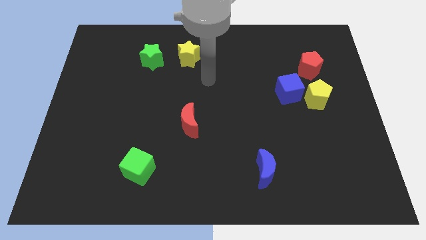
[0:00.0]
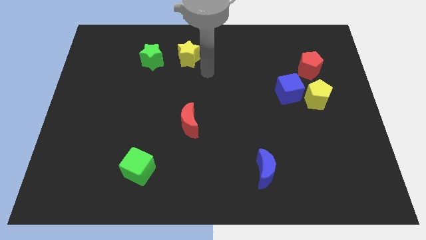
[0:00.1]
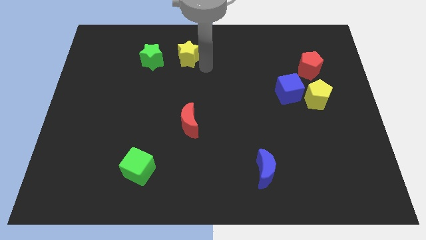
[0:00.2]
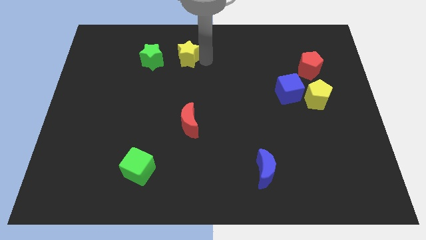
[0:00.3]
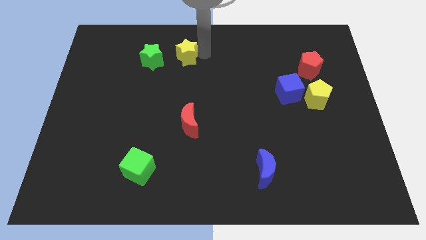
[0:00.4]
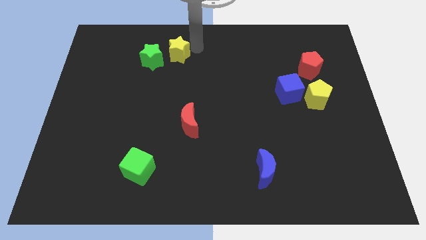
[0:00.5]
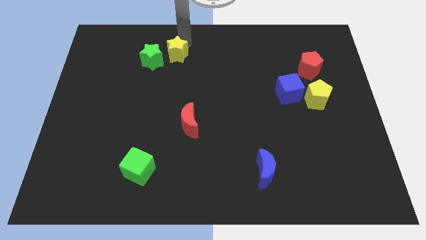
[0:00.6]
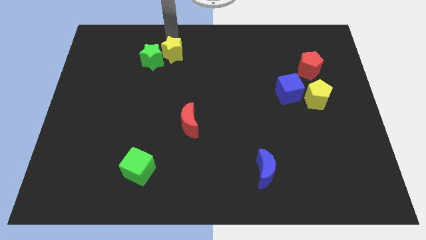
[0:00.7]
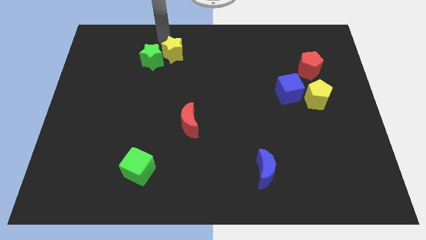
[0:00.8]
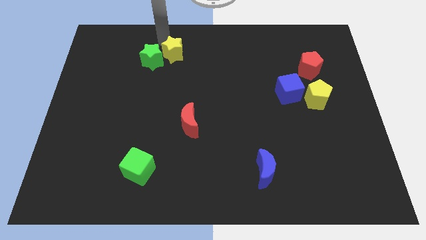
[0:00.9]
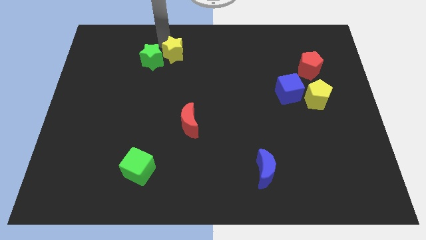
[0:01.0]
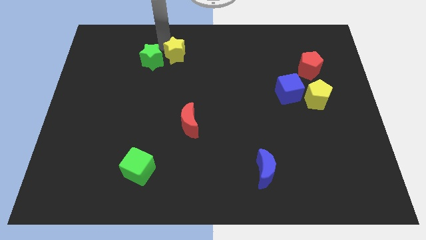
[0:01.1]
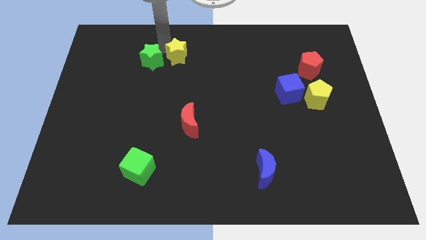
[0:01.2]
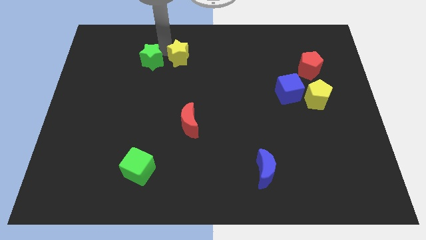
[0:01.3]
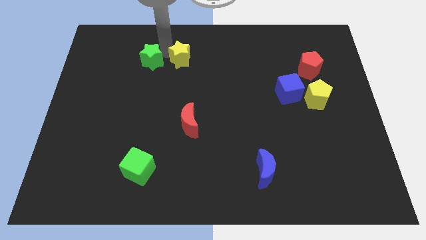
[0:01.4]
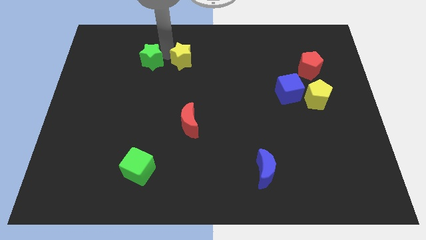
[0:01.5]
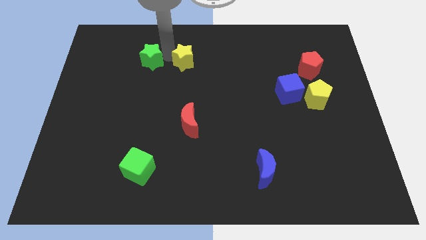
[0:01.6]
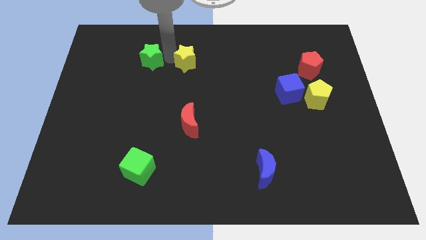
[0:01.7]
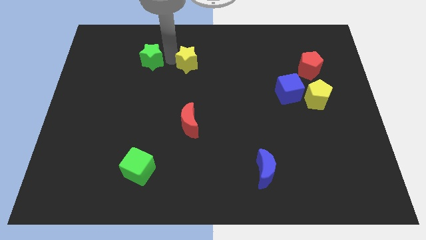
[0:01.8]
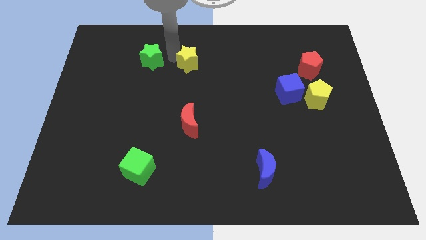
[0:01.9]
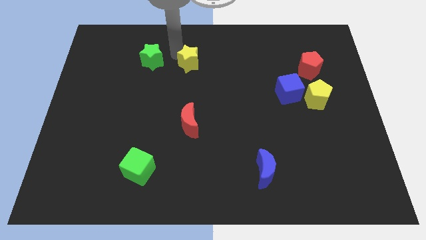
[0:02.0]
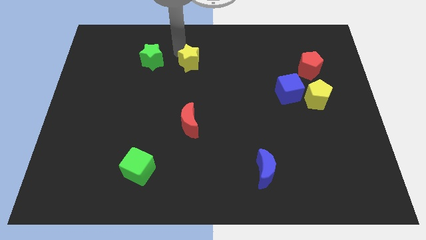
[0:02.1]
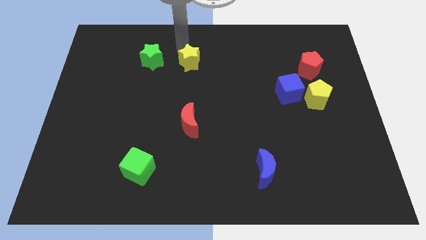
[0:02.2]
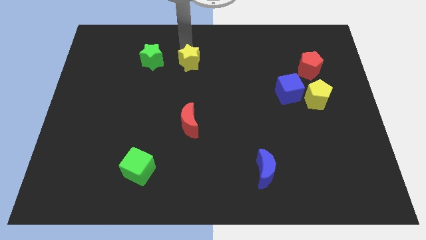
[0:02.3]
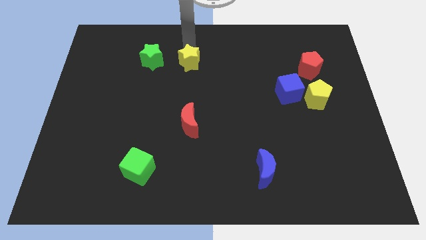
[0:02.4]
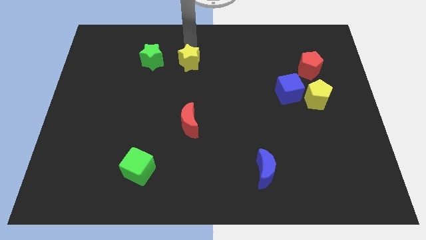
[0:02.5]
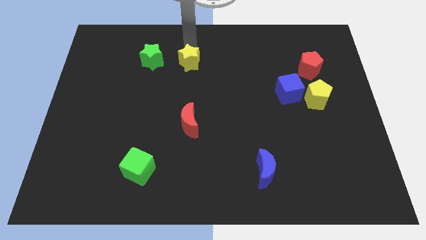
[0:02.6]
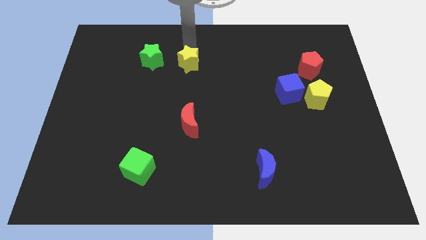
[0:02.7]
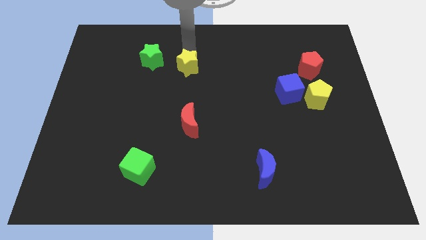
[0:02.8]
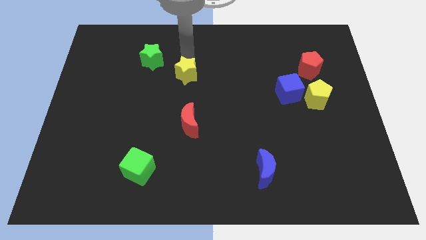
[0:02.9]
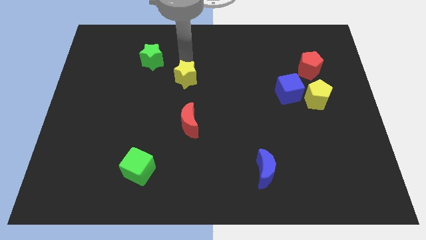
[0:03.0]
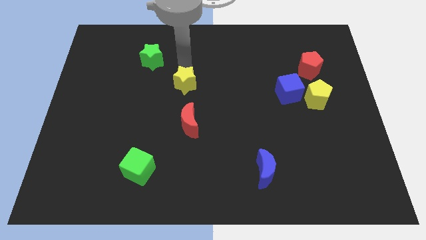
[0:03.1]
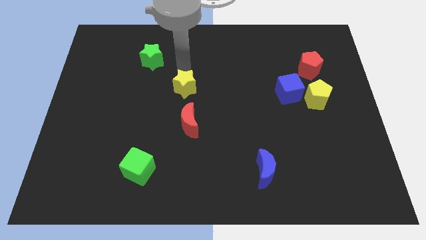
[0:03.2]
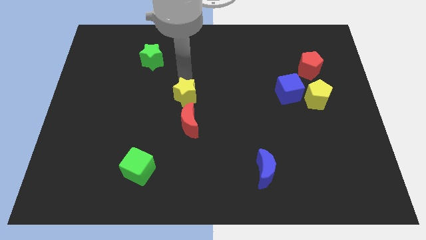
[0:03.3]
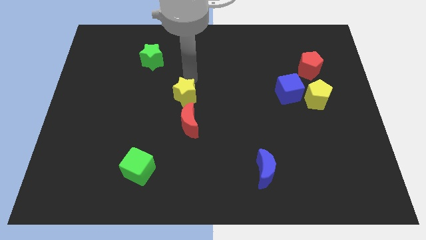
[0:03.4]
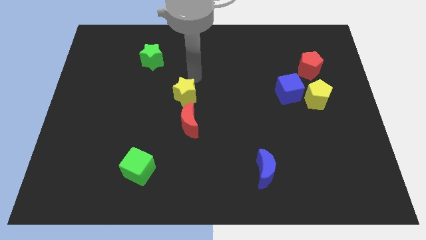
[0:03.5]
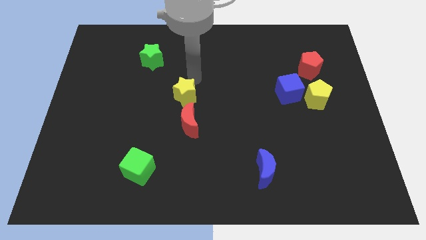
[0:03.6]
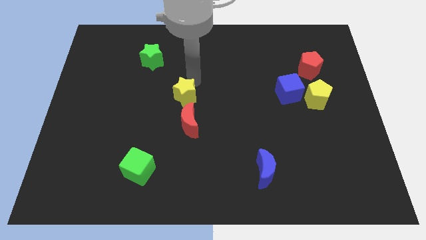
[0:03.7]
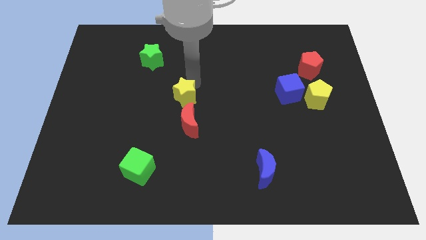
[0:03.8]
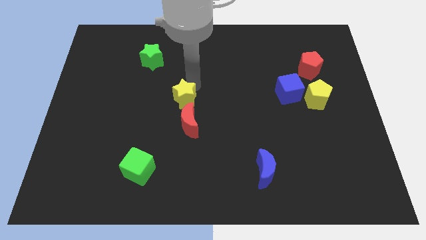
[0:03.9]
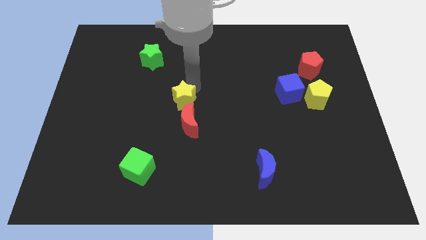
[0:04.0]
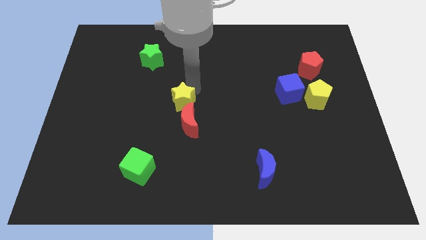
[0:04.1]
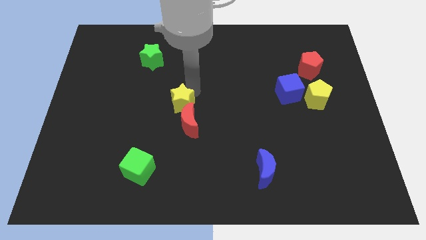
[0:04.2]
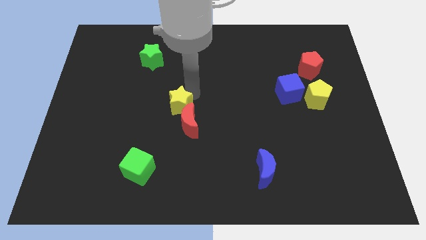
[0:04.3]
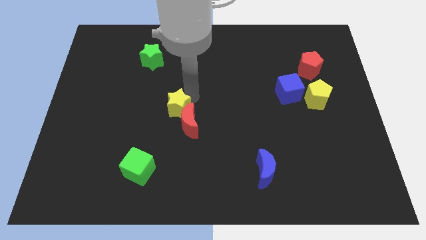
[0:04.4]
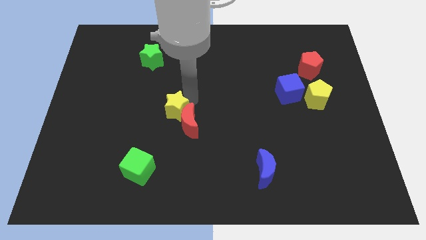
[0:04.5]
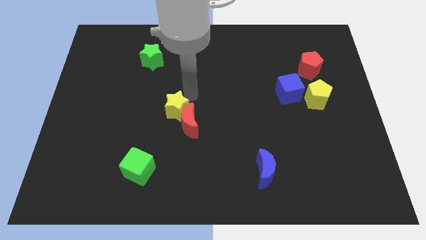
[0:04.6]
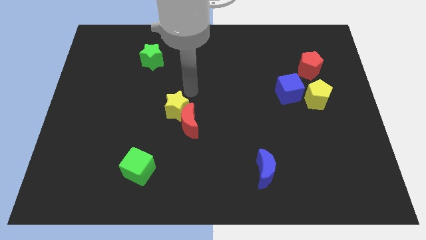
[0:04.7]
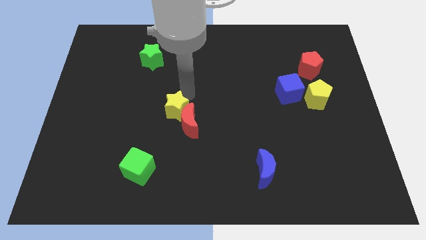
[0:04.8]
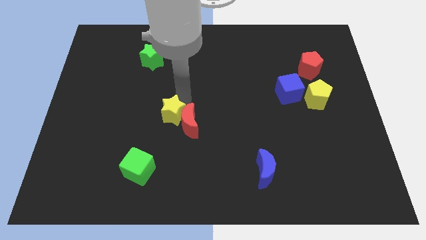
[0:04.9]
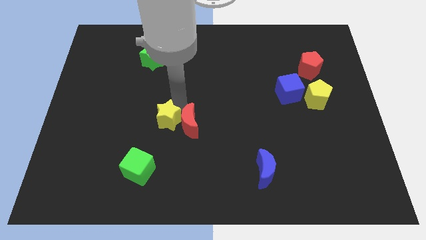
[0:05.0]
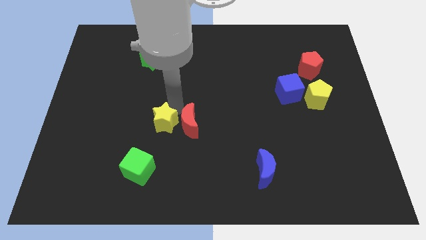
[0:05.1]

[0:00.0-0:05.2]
push the yellow star downwards

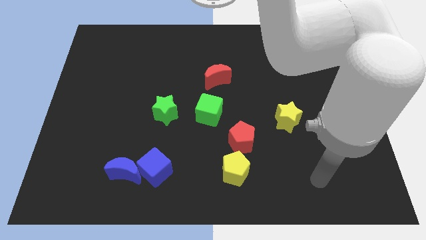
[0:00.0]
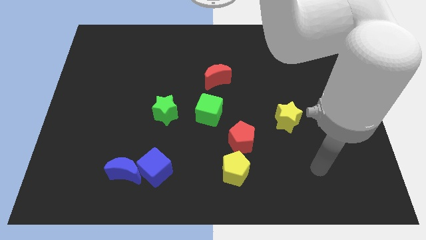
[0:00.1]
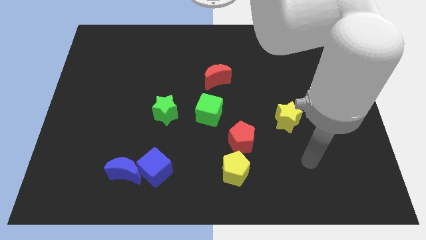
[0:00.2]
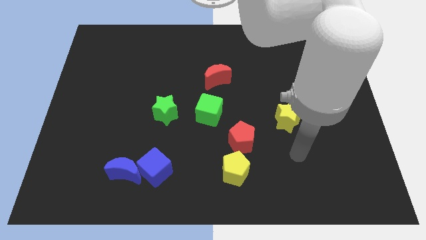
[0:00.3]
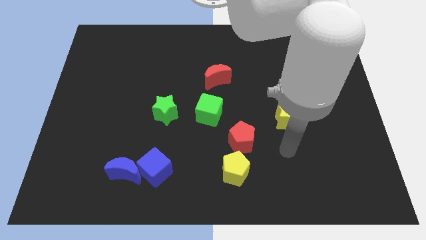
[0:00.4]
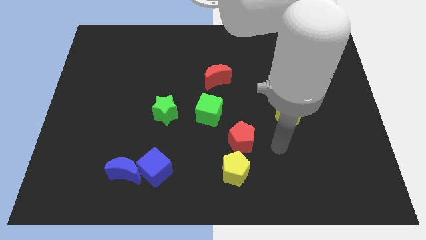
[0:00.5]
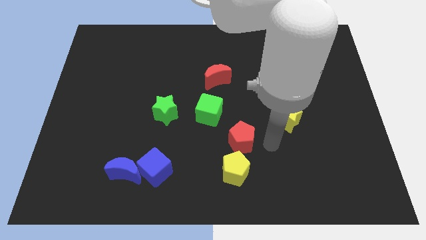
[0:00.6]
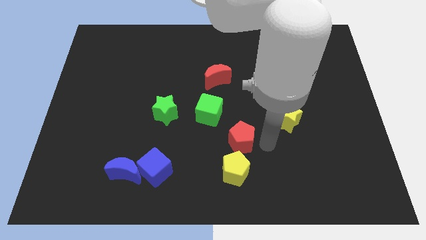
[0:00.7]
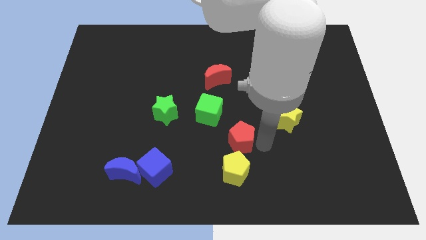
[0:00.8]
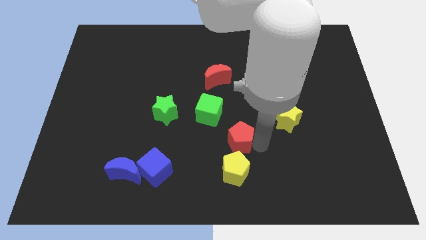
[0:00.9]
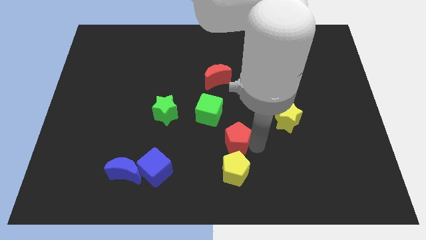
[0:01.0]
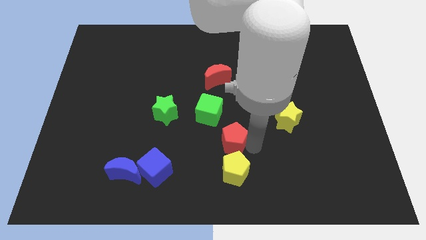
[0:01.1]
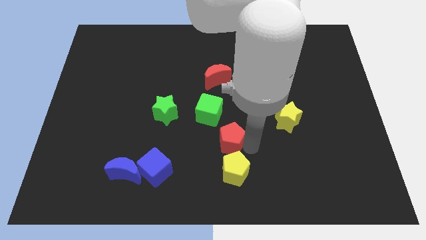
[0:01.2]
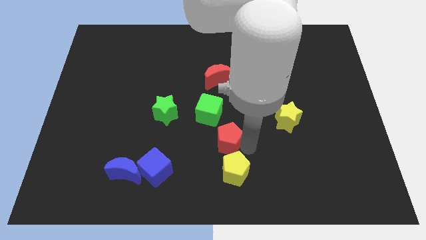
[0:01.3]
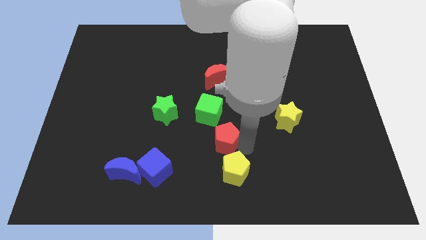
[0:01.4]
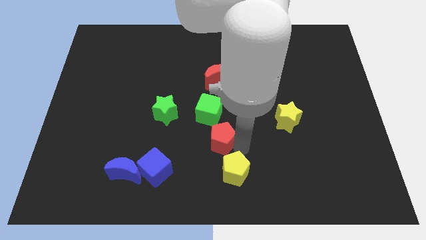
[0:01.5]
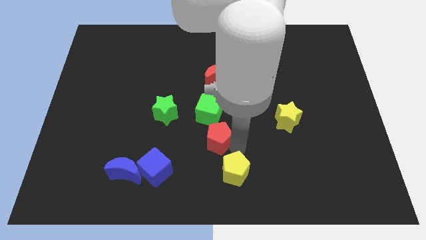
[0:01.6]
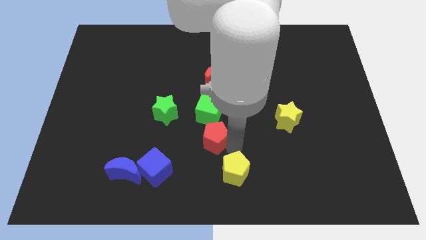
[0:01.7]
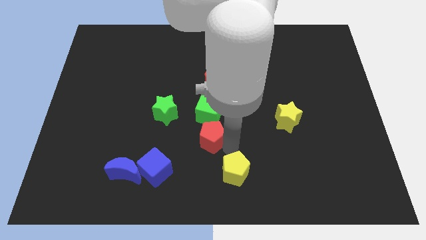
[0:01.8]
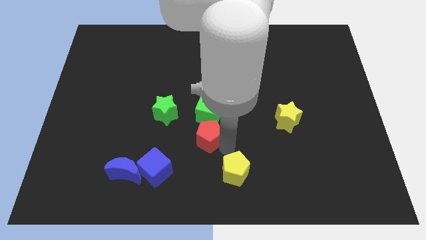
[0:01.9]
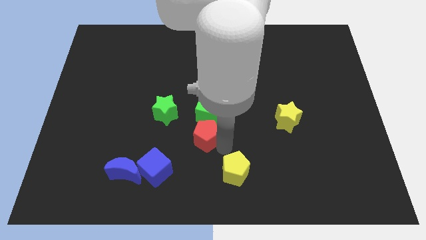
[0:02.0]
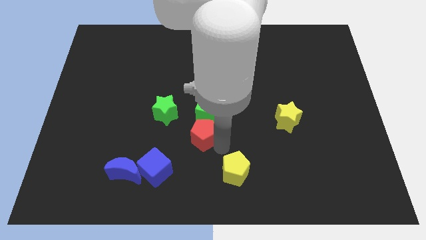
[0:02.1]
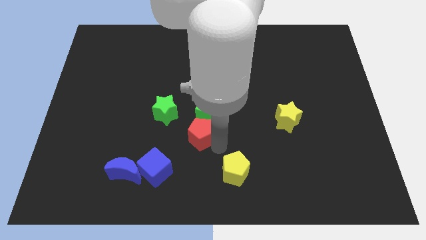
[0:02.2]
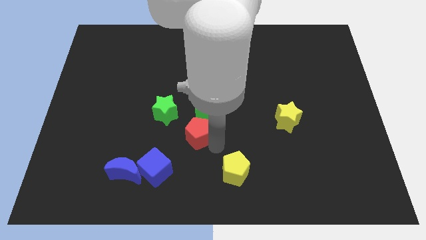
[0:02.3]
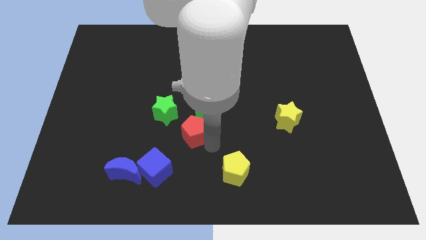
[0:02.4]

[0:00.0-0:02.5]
push the red pentagon up and then to the left a bit

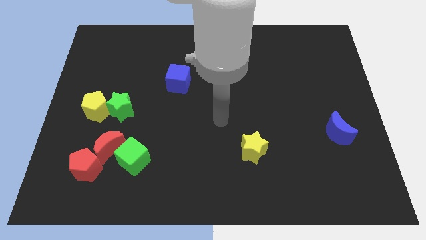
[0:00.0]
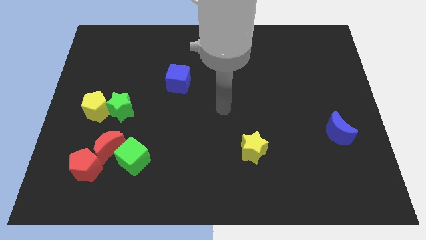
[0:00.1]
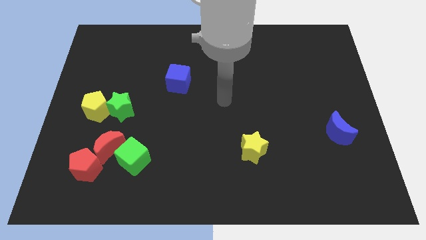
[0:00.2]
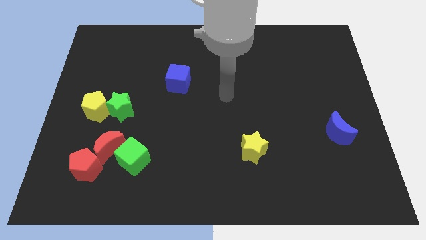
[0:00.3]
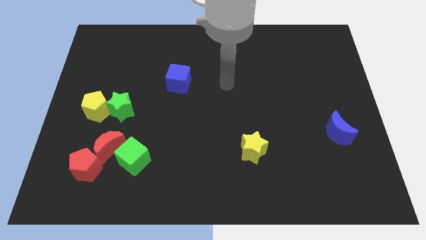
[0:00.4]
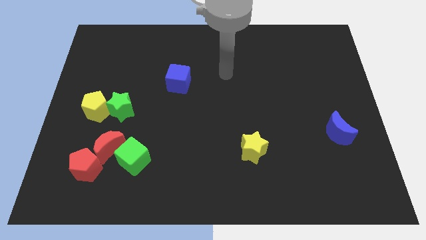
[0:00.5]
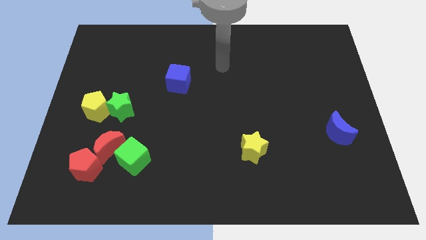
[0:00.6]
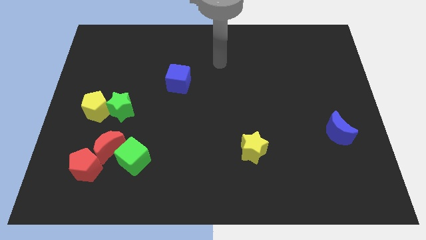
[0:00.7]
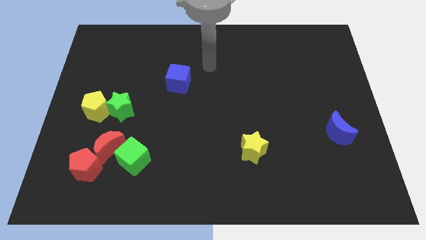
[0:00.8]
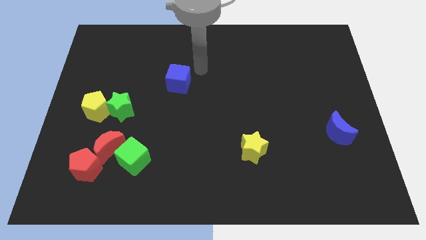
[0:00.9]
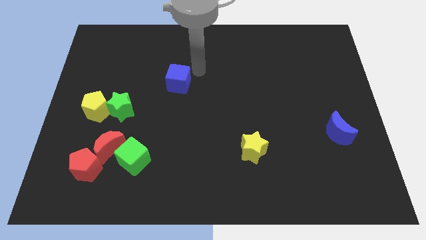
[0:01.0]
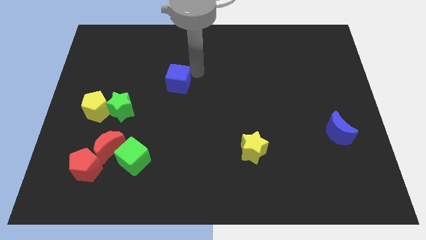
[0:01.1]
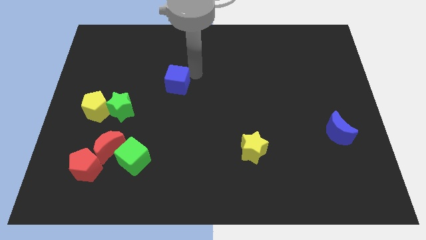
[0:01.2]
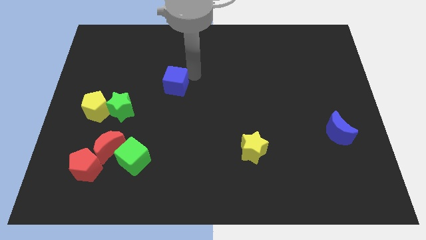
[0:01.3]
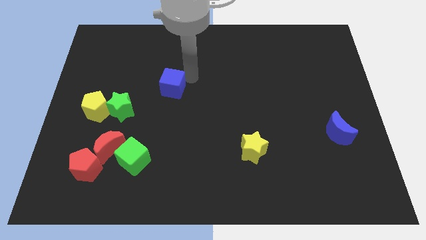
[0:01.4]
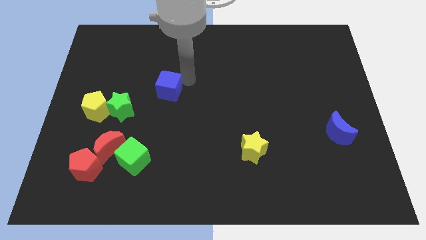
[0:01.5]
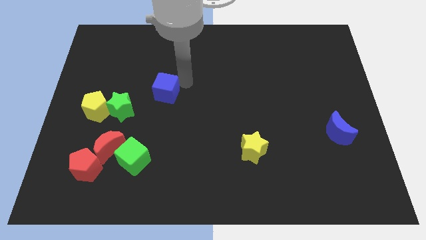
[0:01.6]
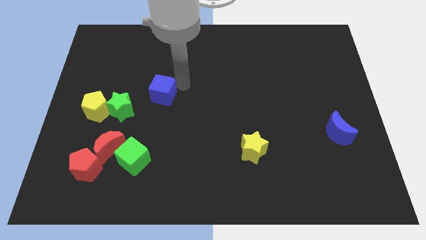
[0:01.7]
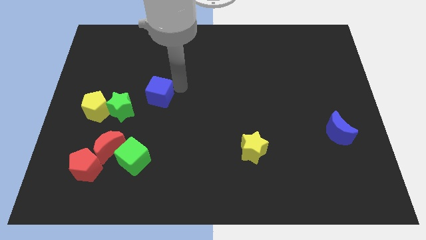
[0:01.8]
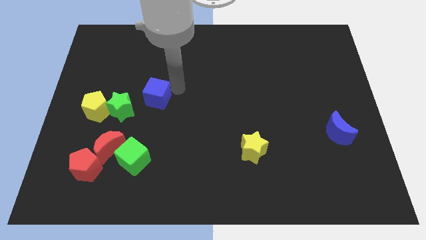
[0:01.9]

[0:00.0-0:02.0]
slightly move the blue cube down and then to the left
